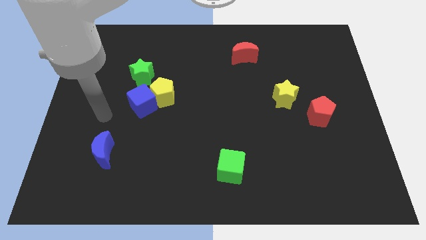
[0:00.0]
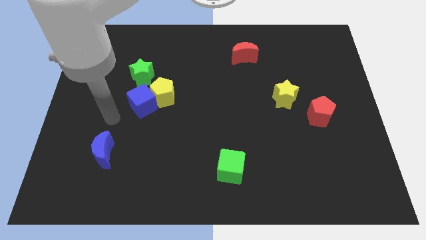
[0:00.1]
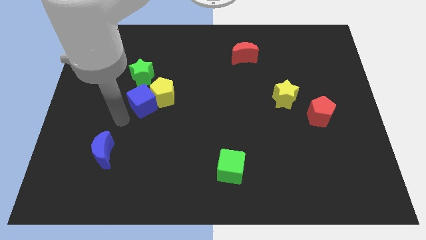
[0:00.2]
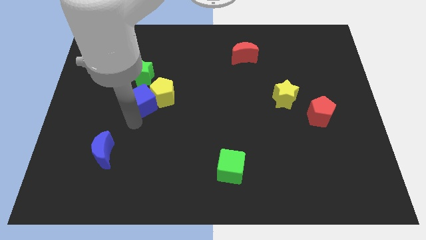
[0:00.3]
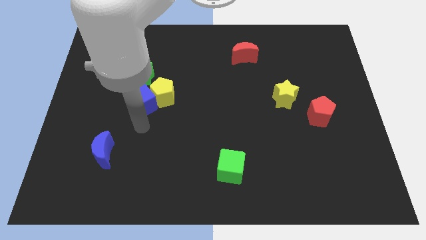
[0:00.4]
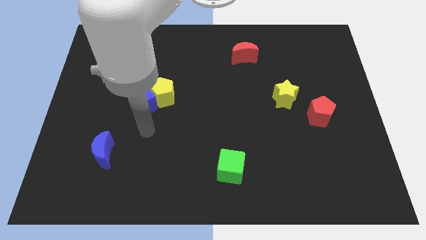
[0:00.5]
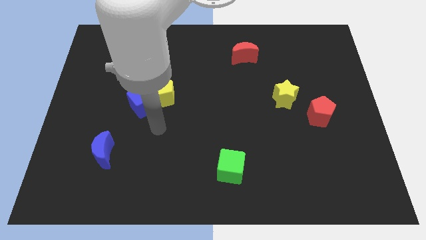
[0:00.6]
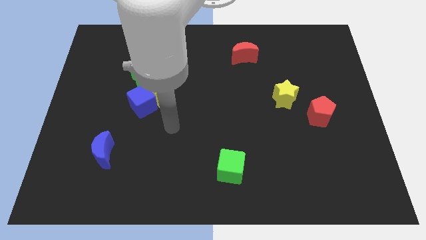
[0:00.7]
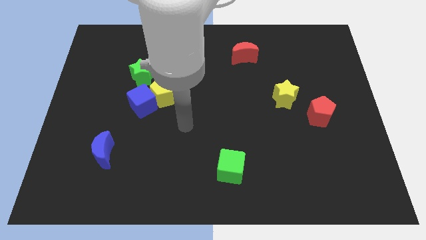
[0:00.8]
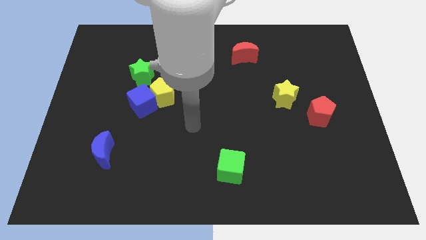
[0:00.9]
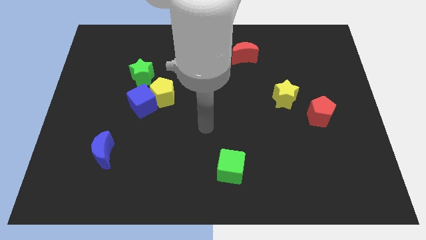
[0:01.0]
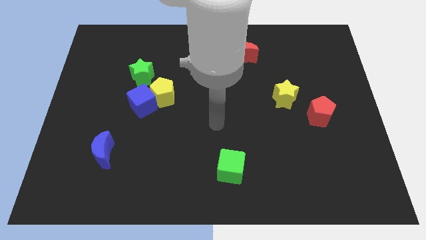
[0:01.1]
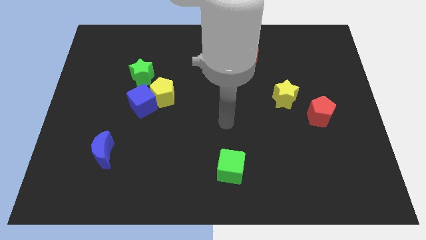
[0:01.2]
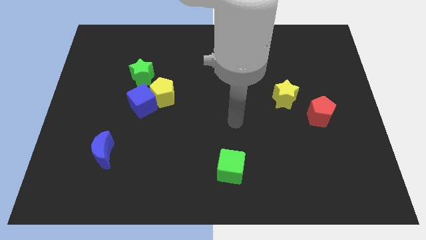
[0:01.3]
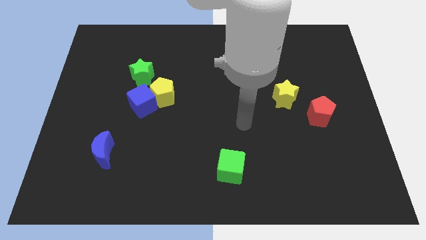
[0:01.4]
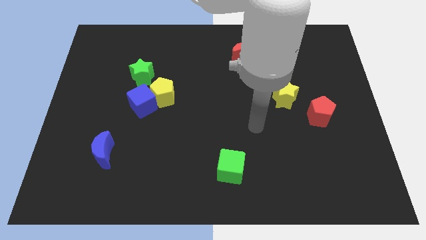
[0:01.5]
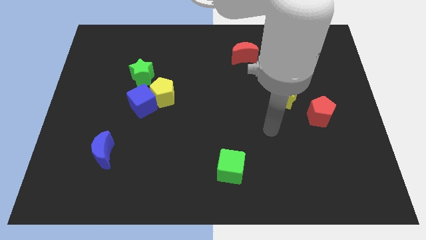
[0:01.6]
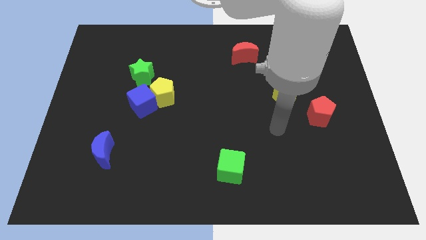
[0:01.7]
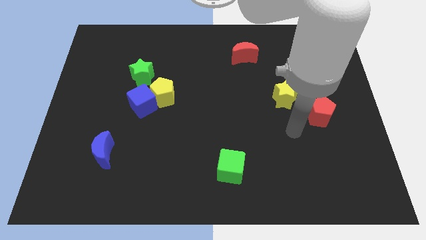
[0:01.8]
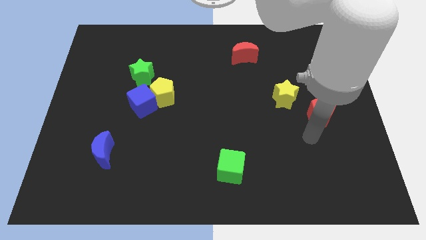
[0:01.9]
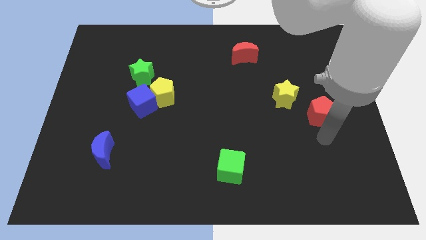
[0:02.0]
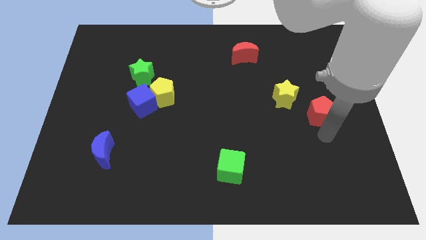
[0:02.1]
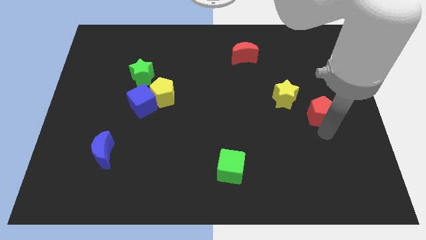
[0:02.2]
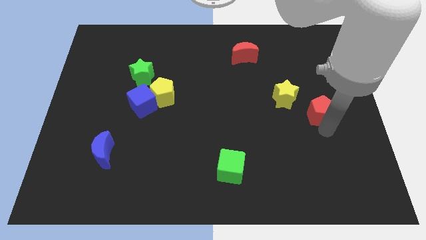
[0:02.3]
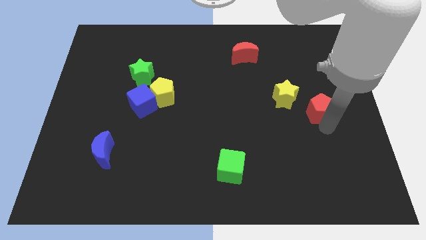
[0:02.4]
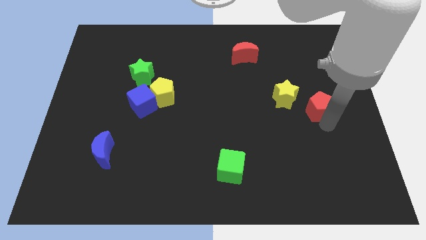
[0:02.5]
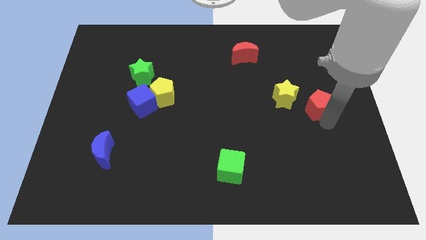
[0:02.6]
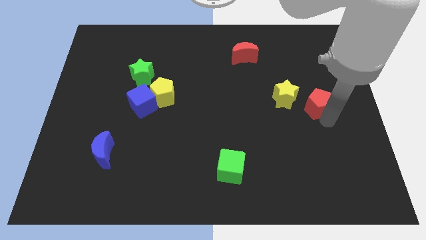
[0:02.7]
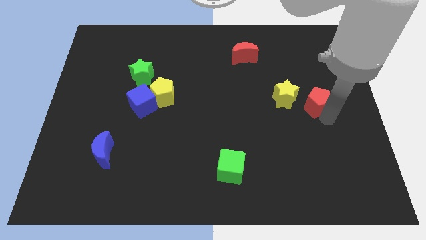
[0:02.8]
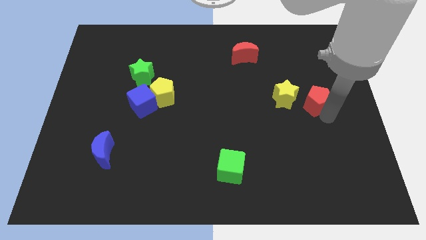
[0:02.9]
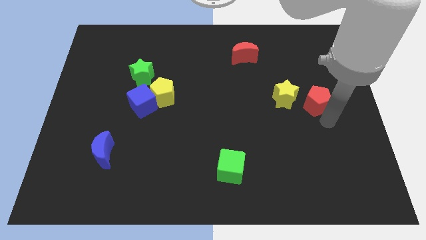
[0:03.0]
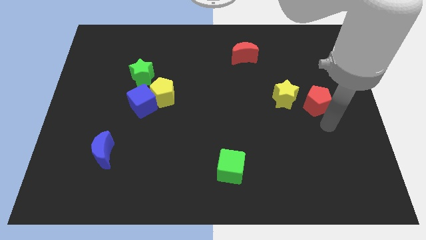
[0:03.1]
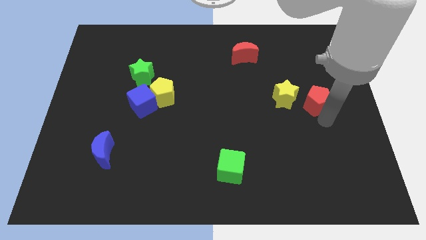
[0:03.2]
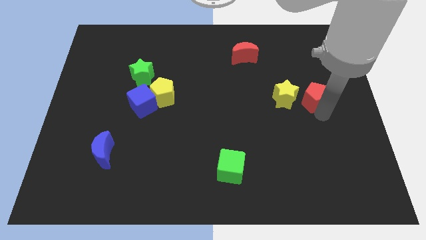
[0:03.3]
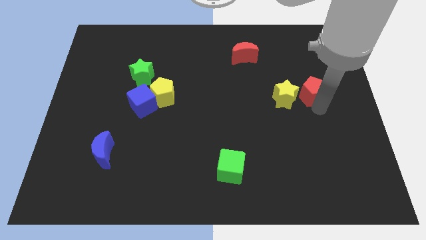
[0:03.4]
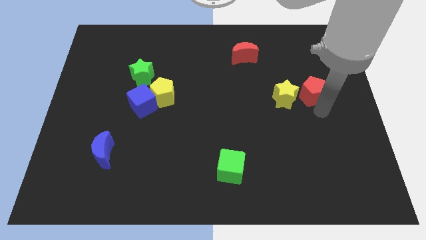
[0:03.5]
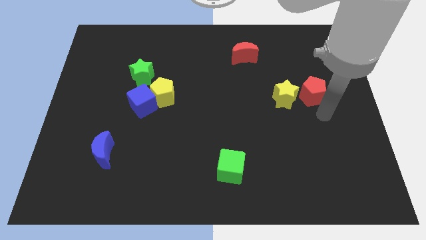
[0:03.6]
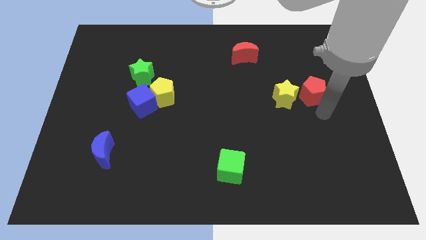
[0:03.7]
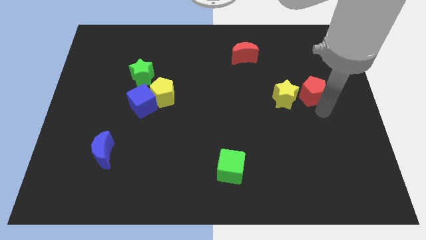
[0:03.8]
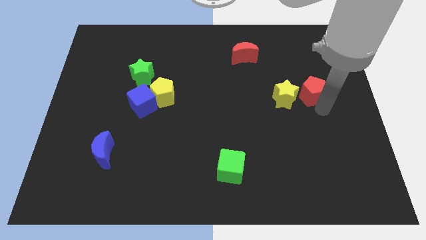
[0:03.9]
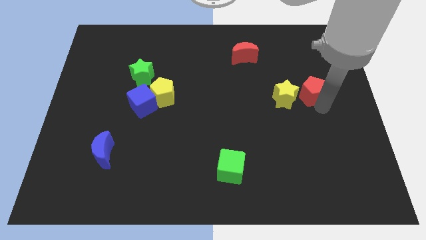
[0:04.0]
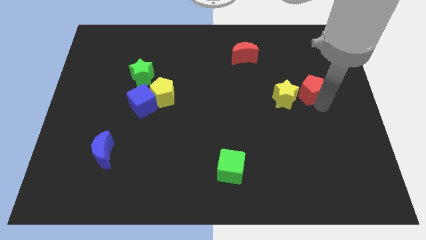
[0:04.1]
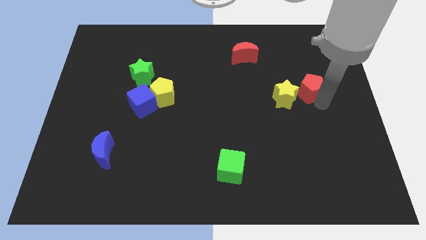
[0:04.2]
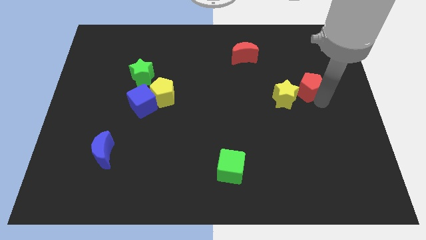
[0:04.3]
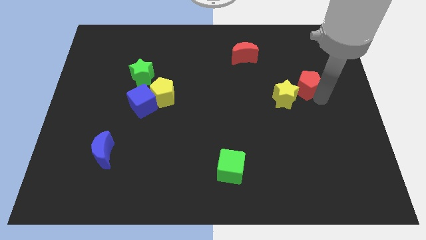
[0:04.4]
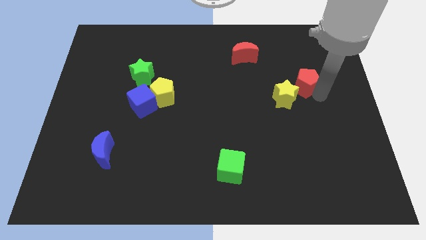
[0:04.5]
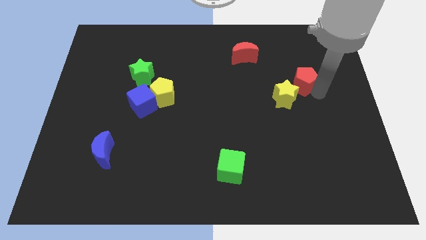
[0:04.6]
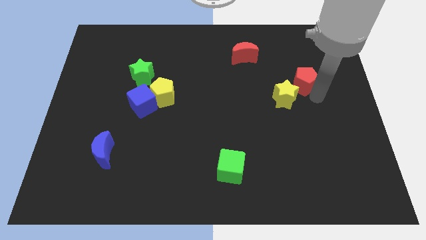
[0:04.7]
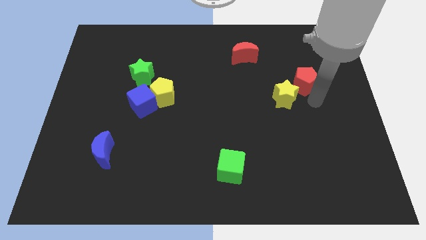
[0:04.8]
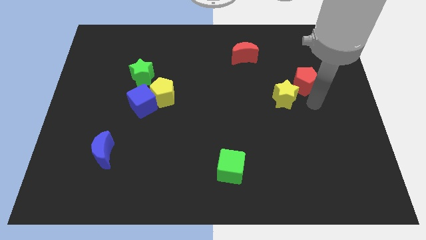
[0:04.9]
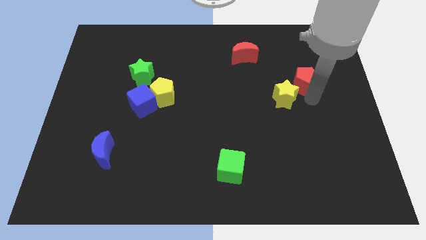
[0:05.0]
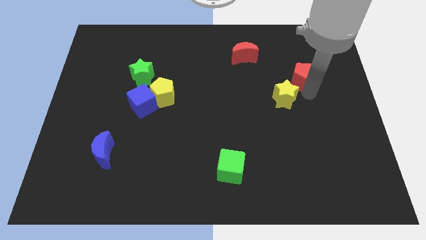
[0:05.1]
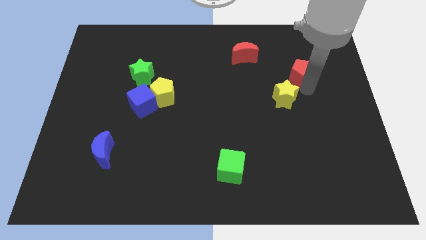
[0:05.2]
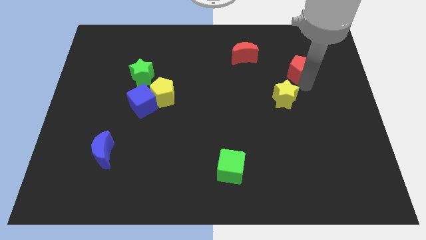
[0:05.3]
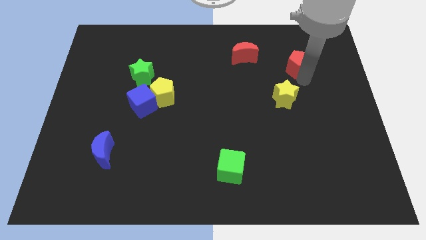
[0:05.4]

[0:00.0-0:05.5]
move the red pentagon to the right of the red moon

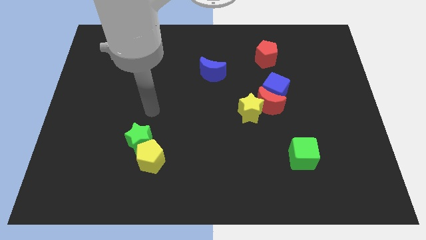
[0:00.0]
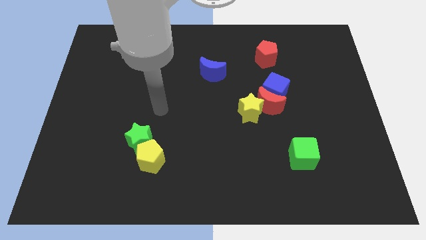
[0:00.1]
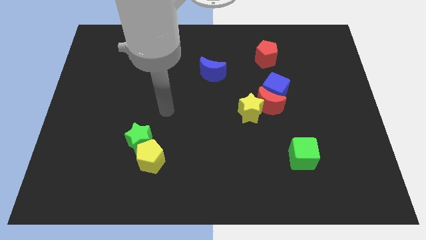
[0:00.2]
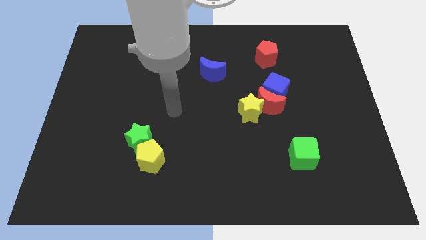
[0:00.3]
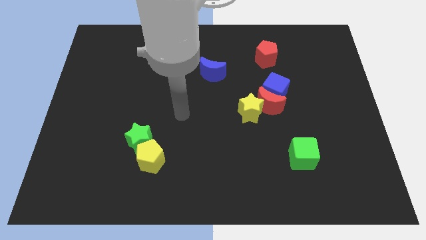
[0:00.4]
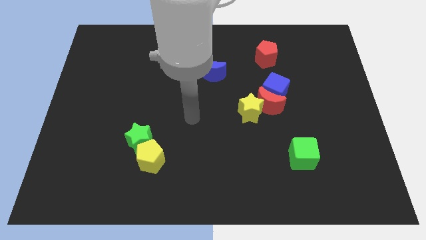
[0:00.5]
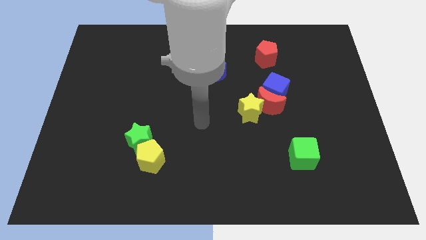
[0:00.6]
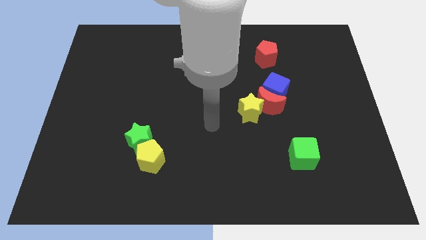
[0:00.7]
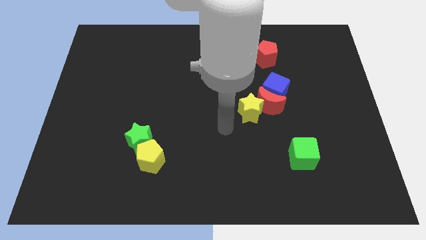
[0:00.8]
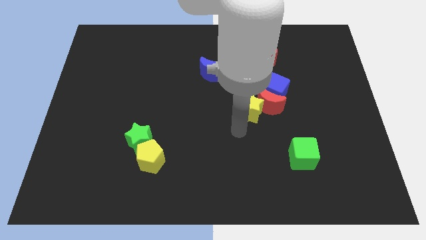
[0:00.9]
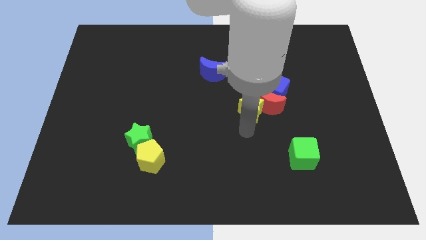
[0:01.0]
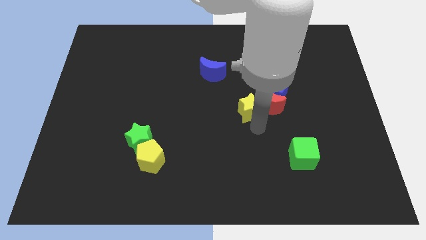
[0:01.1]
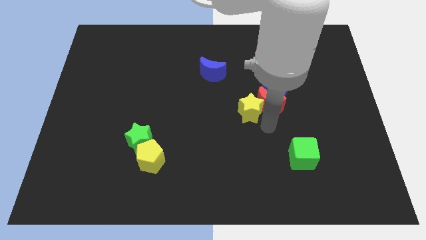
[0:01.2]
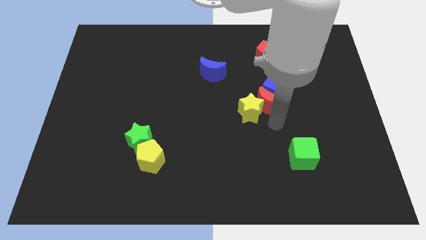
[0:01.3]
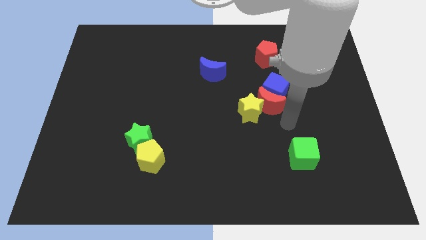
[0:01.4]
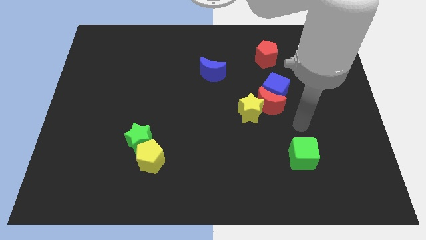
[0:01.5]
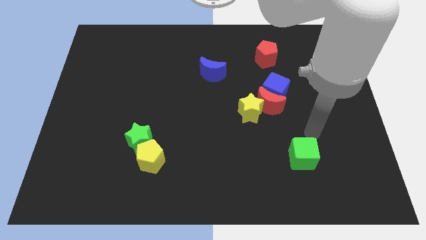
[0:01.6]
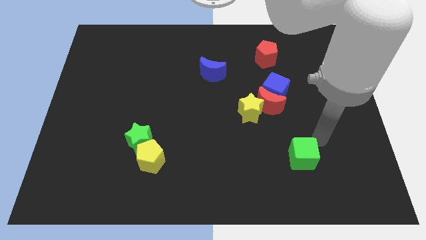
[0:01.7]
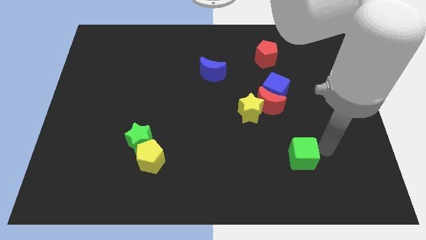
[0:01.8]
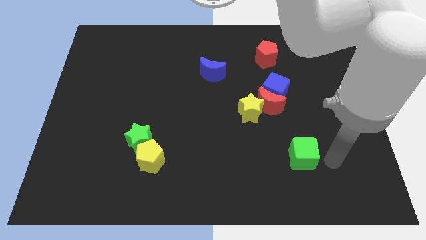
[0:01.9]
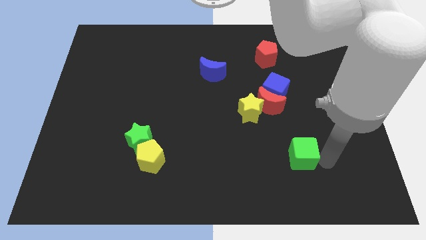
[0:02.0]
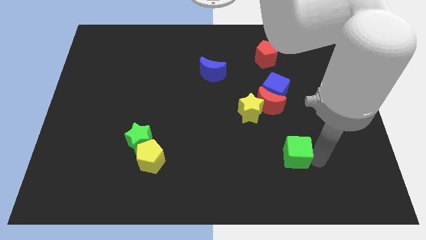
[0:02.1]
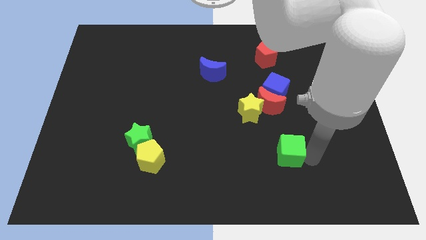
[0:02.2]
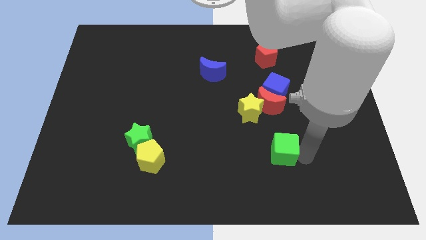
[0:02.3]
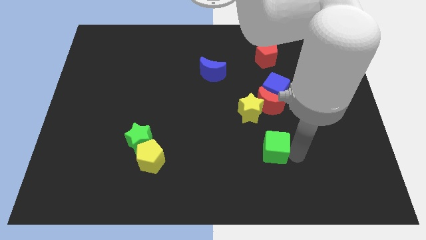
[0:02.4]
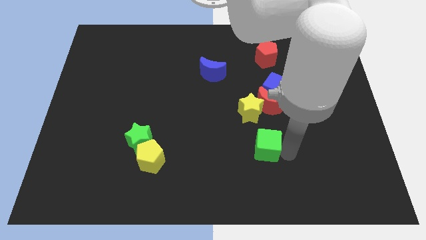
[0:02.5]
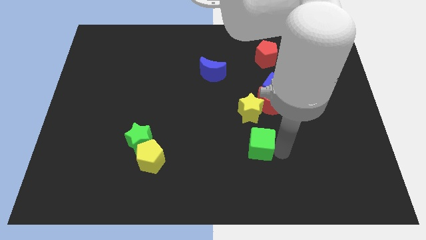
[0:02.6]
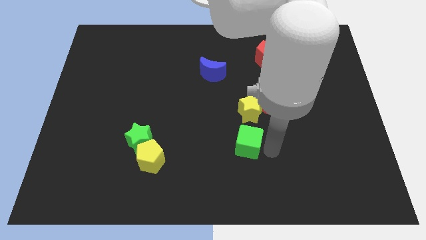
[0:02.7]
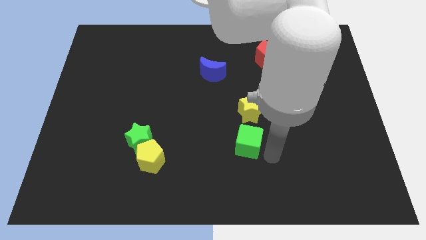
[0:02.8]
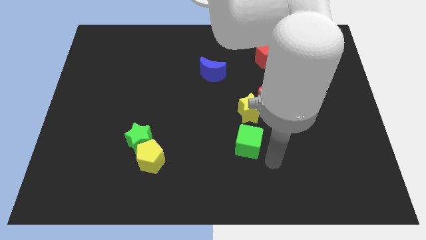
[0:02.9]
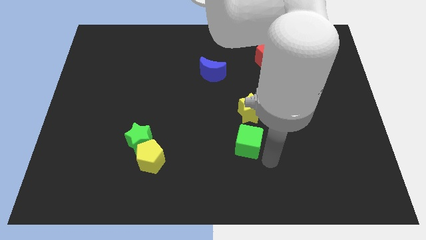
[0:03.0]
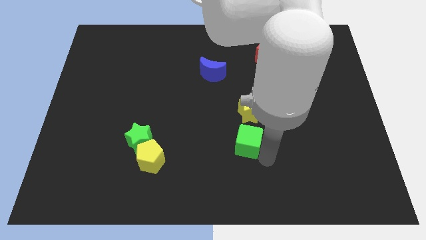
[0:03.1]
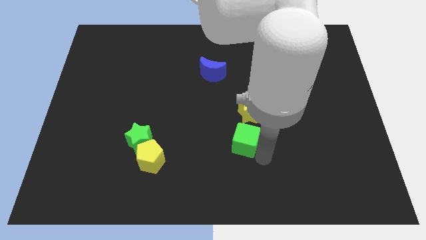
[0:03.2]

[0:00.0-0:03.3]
put the green cube diagonally down and to the left of the yellow star
